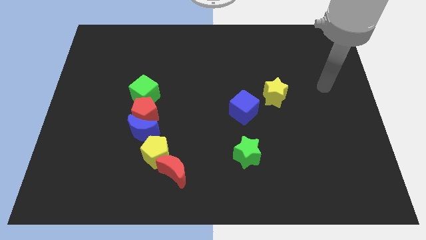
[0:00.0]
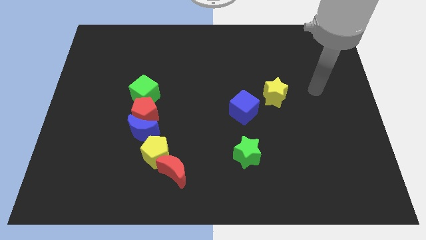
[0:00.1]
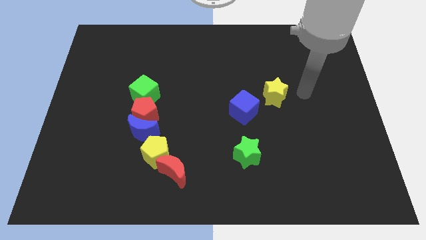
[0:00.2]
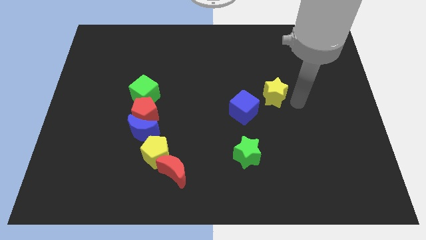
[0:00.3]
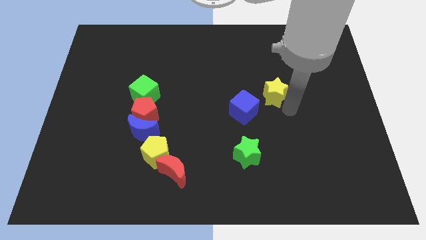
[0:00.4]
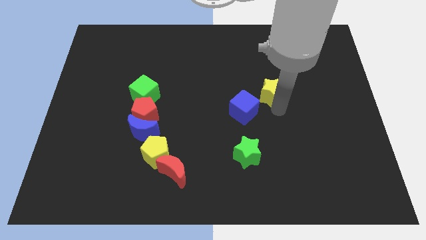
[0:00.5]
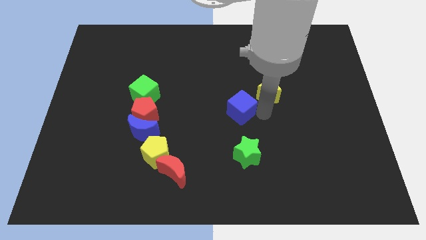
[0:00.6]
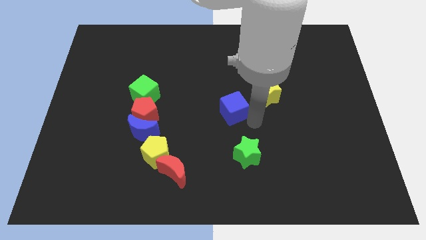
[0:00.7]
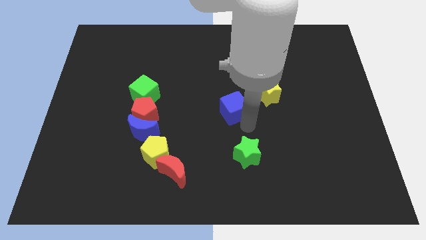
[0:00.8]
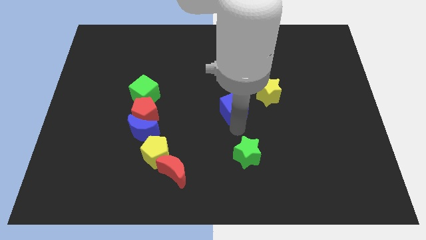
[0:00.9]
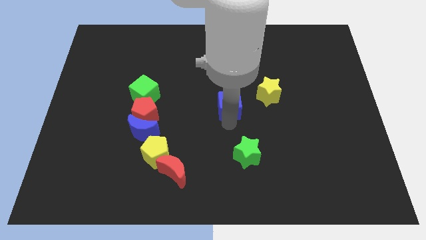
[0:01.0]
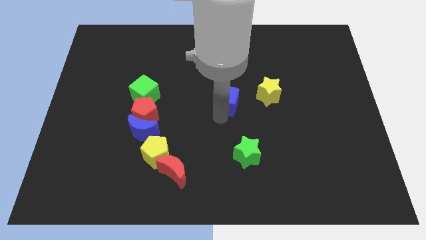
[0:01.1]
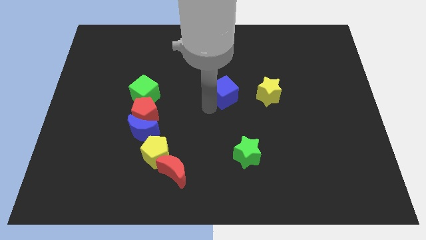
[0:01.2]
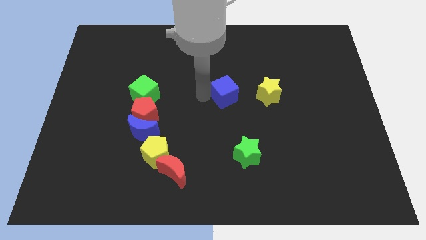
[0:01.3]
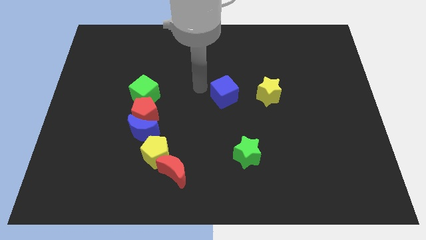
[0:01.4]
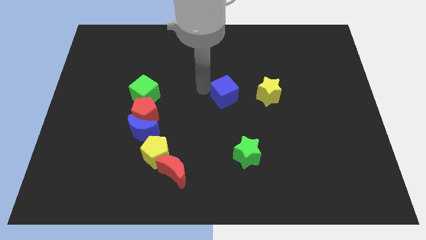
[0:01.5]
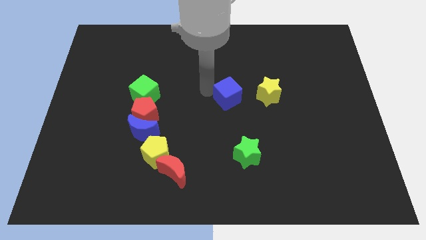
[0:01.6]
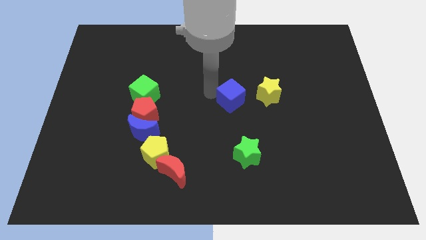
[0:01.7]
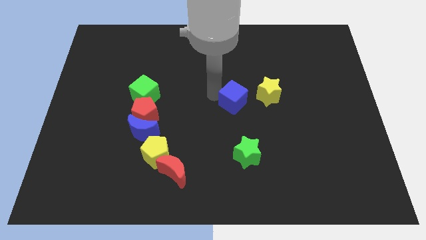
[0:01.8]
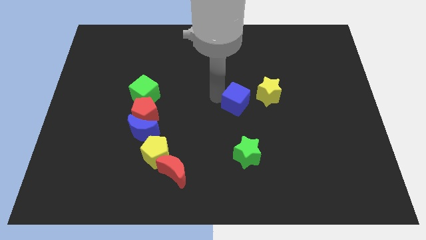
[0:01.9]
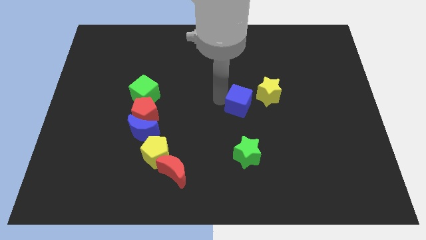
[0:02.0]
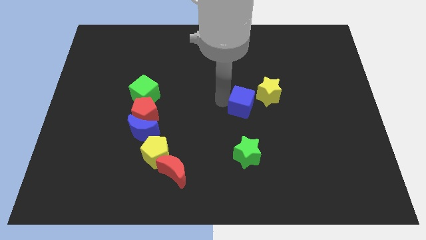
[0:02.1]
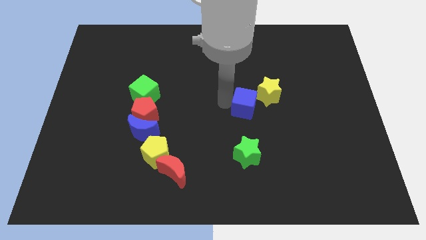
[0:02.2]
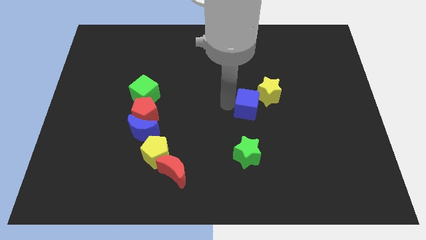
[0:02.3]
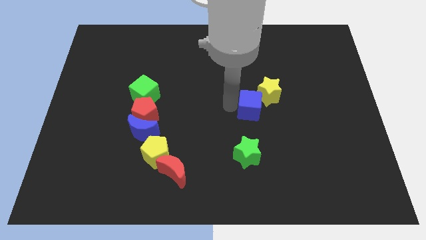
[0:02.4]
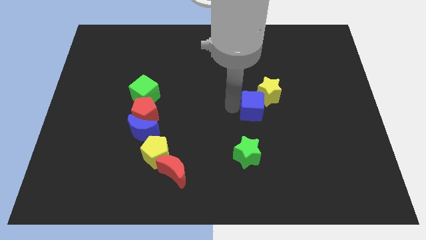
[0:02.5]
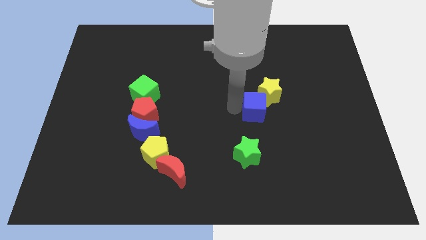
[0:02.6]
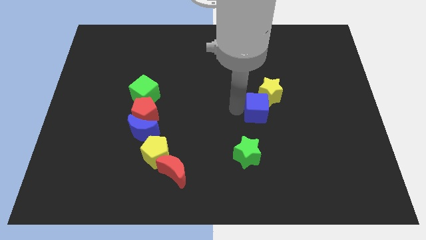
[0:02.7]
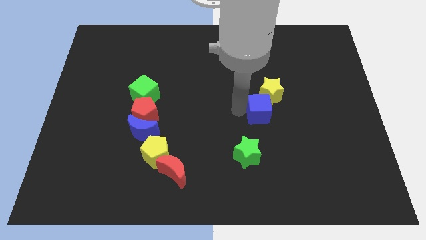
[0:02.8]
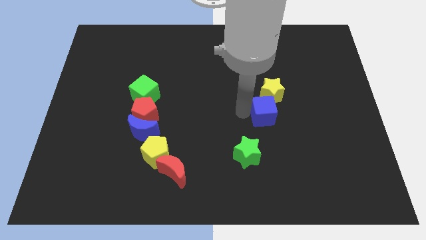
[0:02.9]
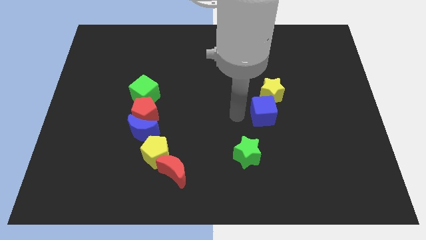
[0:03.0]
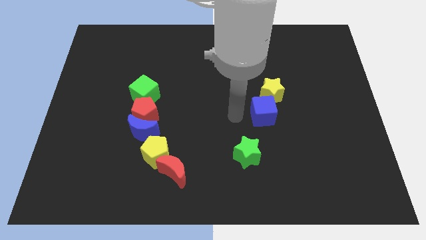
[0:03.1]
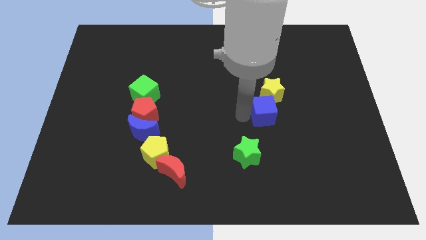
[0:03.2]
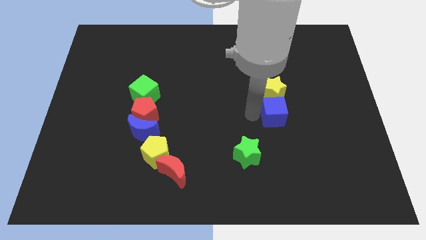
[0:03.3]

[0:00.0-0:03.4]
slightly push the blue cube right

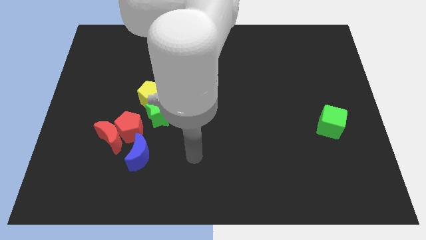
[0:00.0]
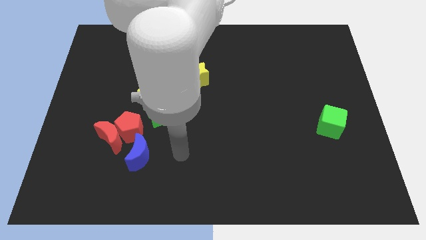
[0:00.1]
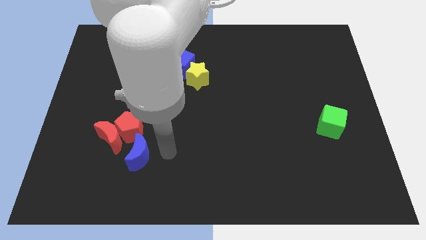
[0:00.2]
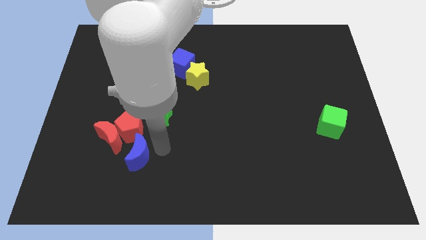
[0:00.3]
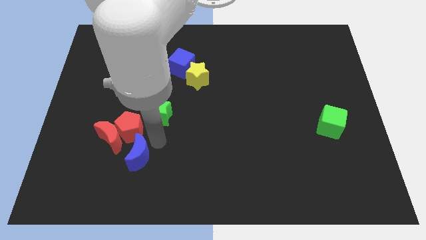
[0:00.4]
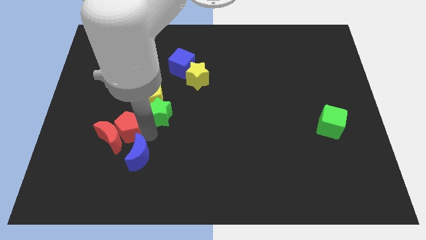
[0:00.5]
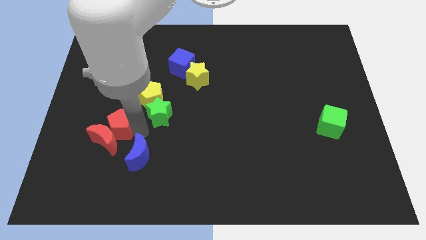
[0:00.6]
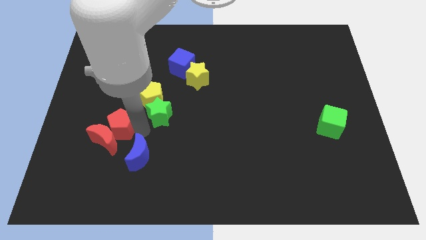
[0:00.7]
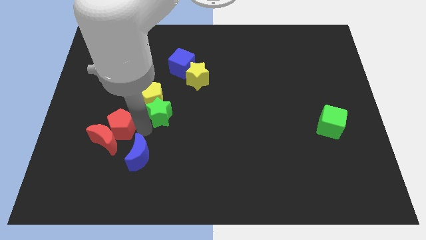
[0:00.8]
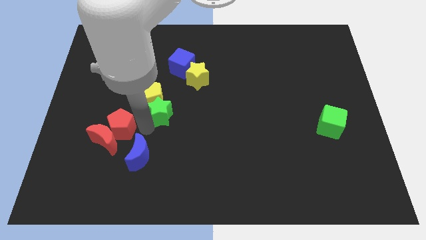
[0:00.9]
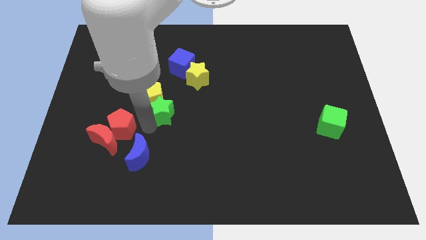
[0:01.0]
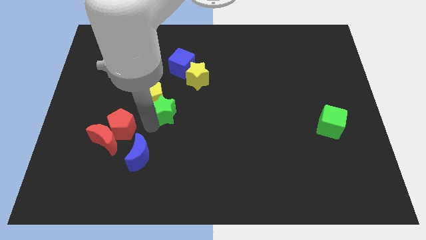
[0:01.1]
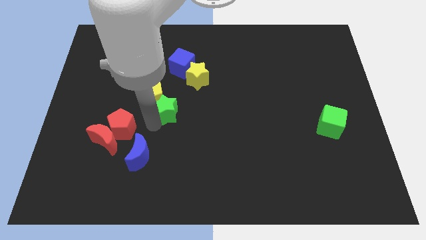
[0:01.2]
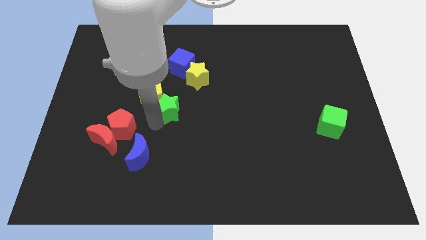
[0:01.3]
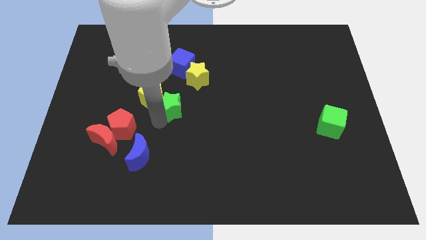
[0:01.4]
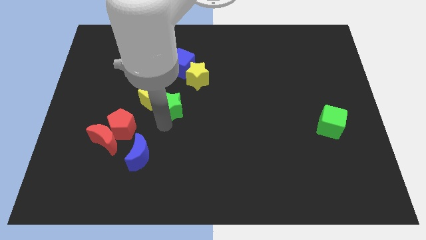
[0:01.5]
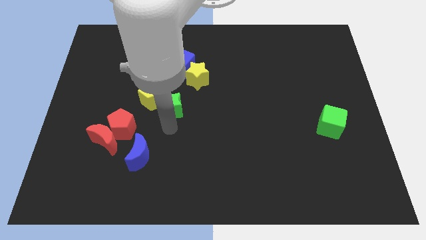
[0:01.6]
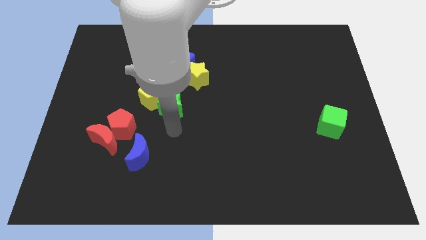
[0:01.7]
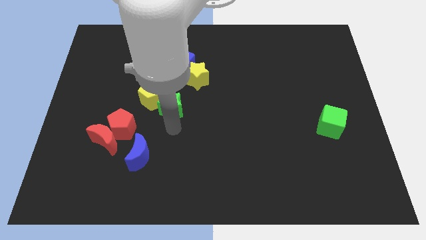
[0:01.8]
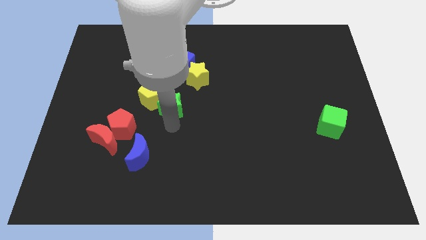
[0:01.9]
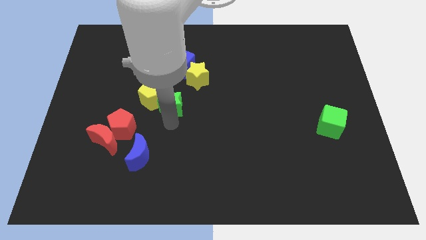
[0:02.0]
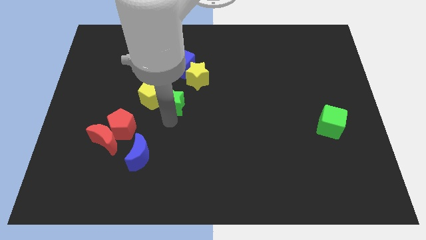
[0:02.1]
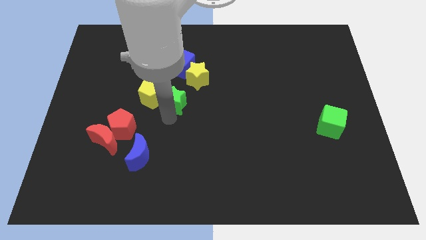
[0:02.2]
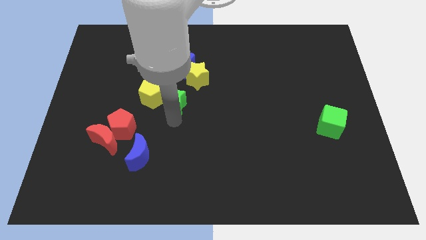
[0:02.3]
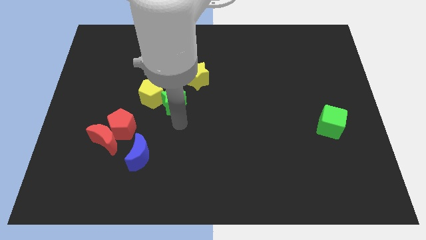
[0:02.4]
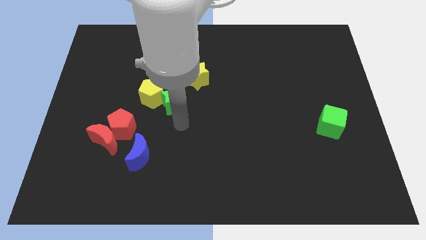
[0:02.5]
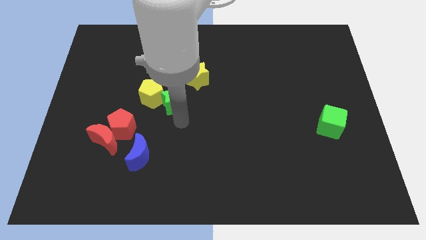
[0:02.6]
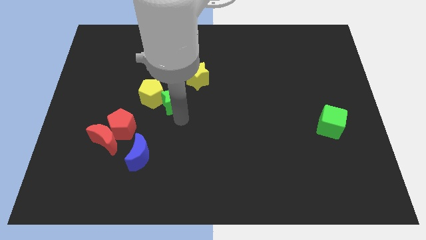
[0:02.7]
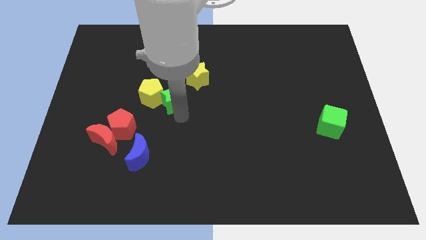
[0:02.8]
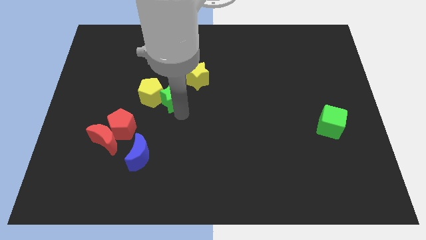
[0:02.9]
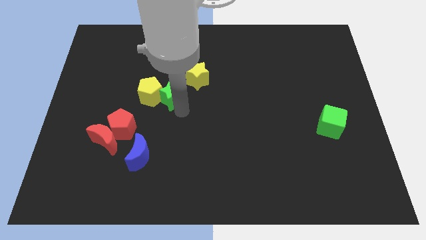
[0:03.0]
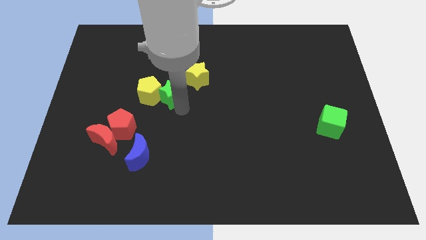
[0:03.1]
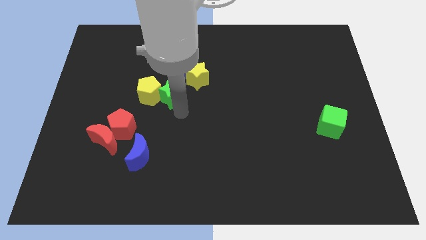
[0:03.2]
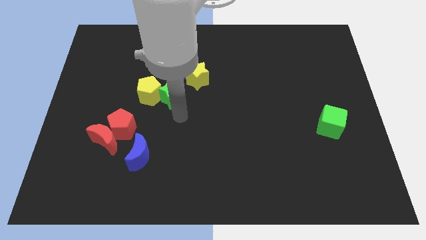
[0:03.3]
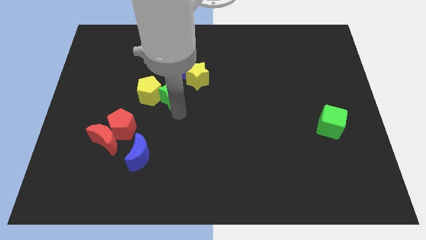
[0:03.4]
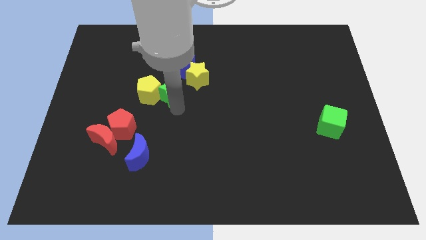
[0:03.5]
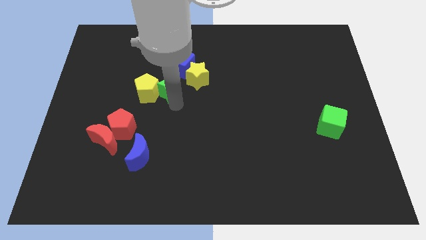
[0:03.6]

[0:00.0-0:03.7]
move the green star up somewhat

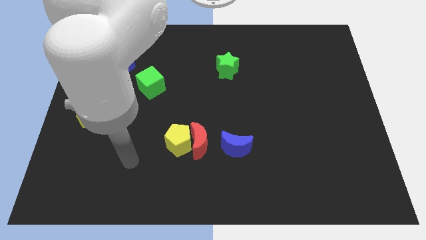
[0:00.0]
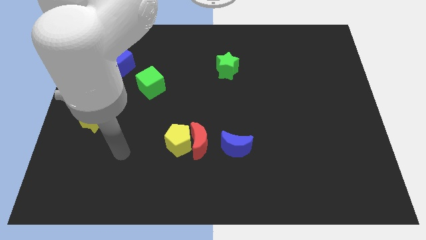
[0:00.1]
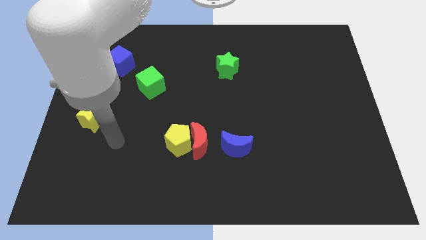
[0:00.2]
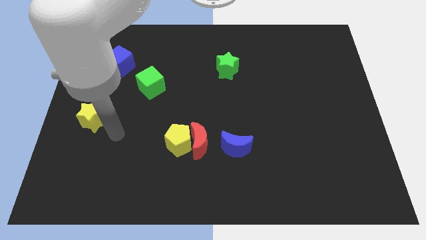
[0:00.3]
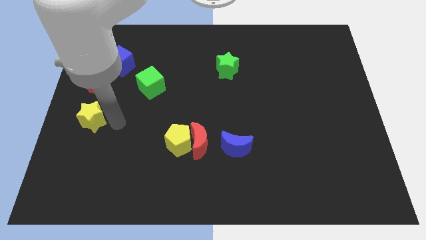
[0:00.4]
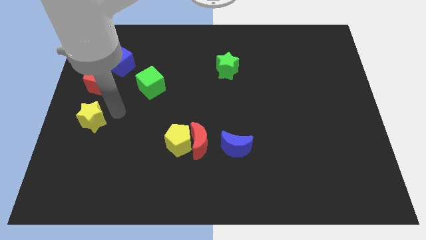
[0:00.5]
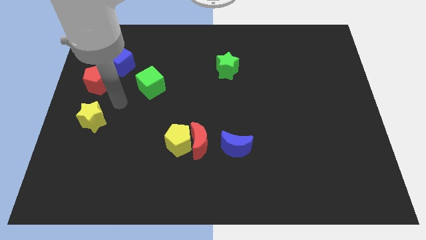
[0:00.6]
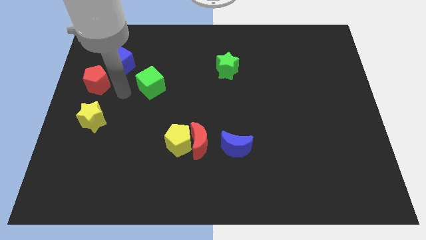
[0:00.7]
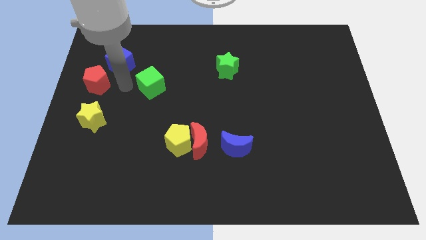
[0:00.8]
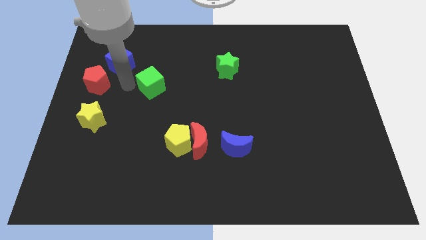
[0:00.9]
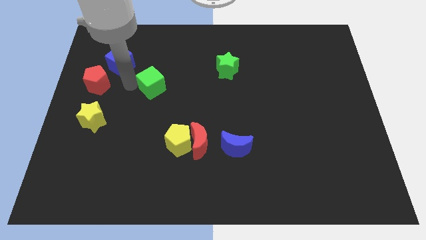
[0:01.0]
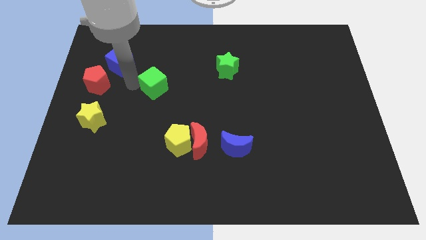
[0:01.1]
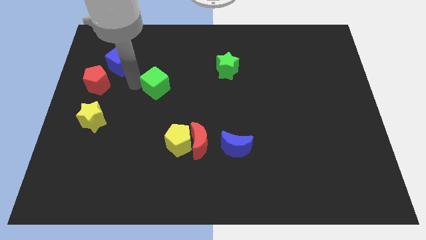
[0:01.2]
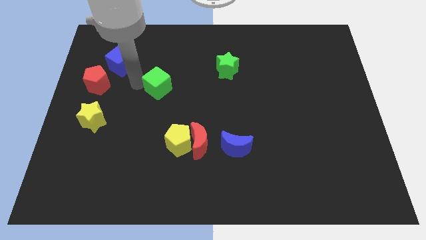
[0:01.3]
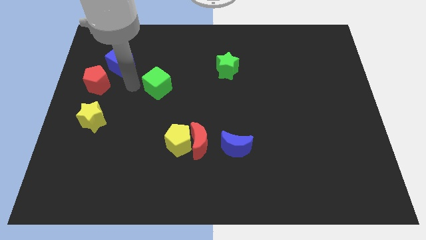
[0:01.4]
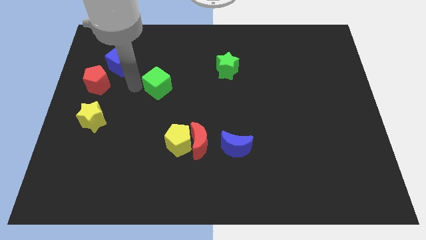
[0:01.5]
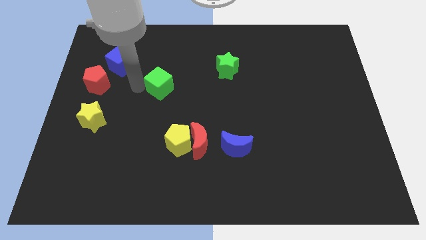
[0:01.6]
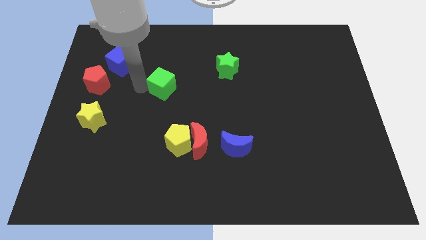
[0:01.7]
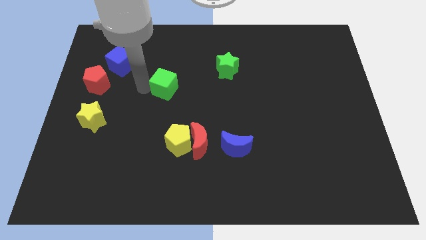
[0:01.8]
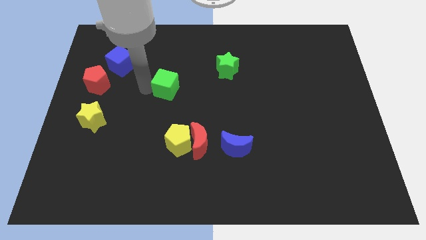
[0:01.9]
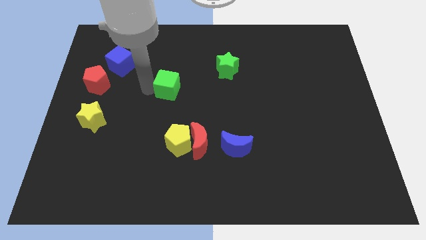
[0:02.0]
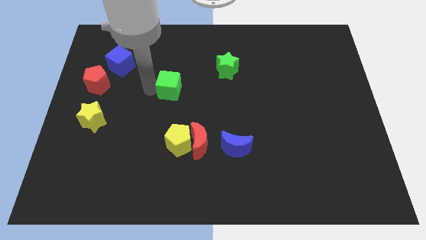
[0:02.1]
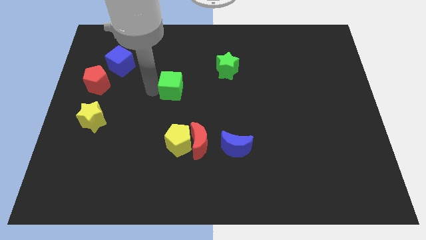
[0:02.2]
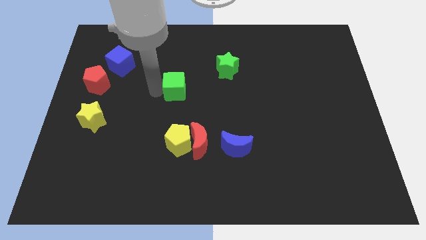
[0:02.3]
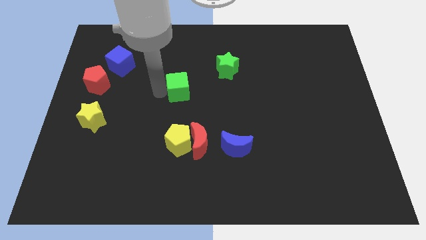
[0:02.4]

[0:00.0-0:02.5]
move the green cube a little right
